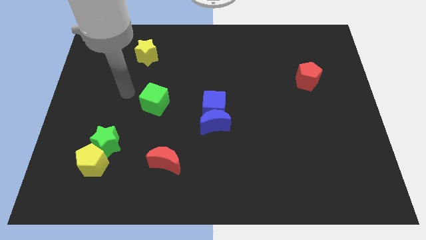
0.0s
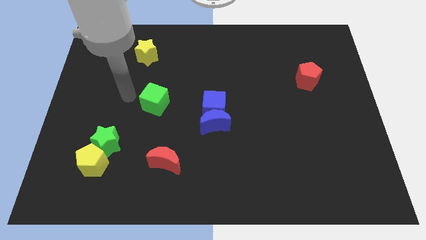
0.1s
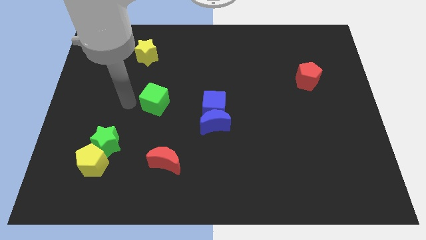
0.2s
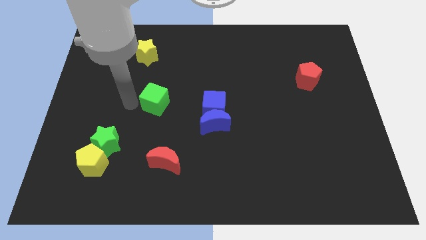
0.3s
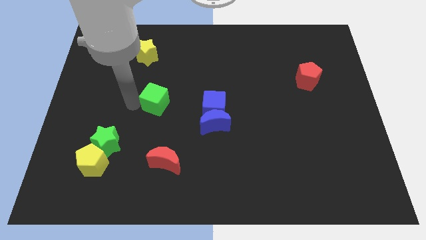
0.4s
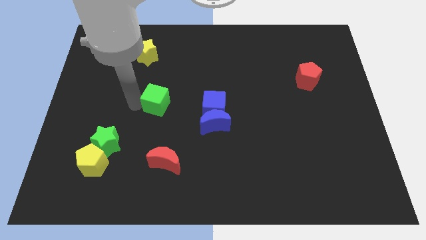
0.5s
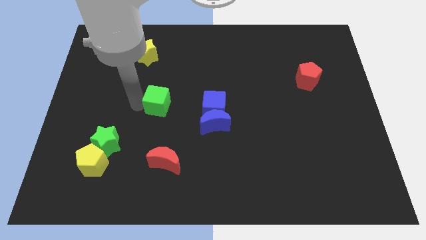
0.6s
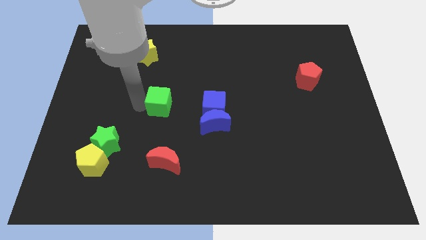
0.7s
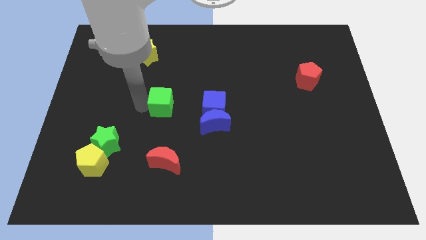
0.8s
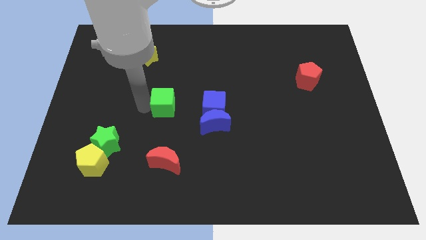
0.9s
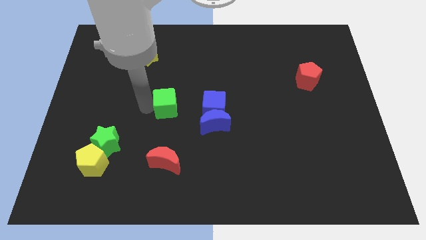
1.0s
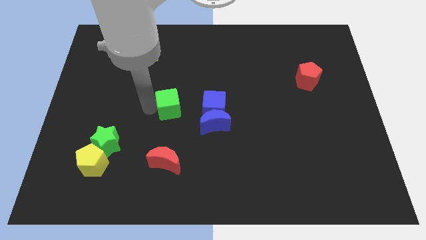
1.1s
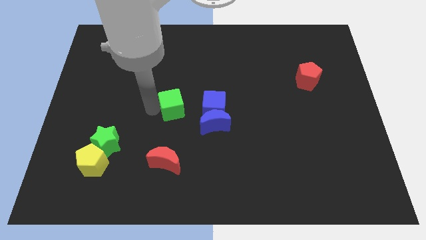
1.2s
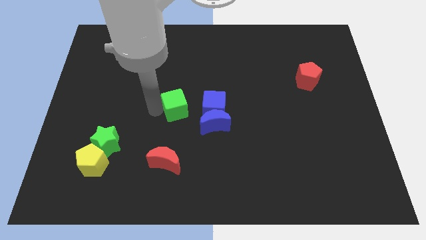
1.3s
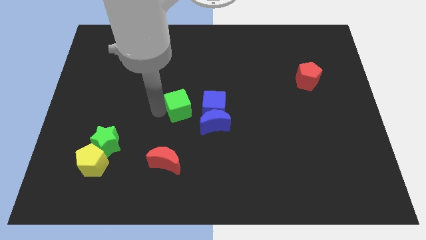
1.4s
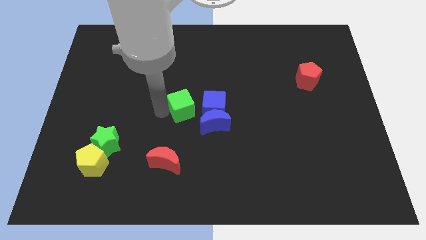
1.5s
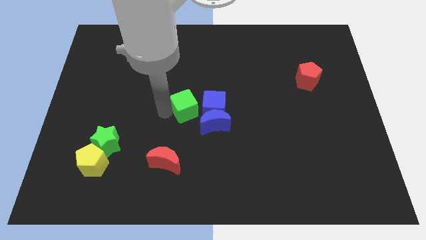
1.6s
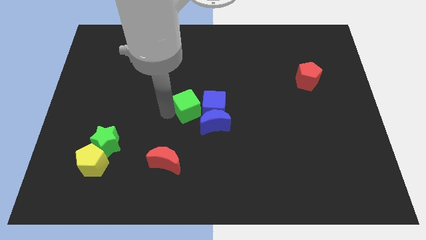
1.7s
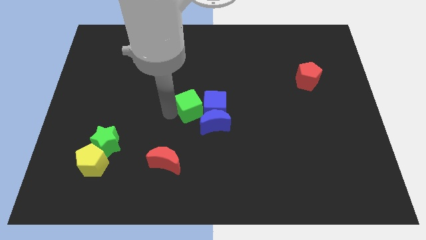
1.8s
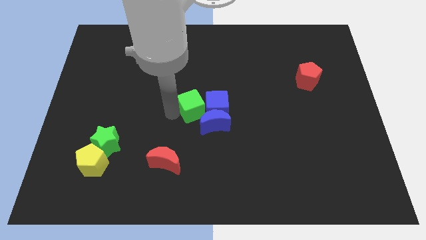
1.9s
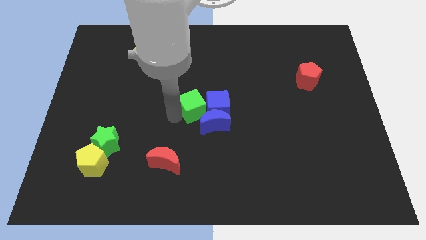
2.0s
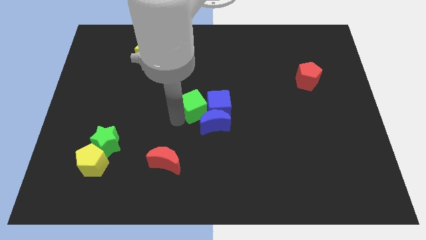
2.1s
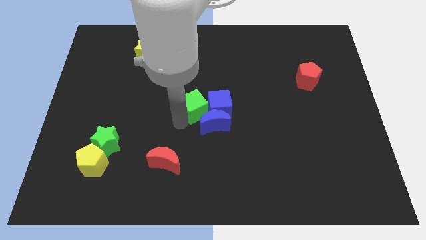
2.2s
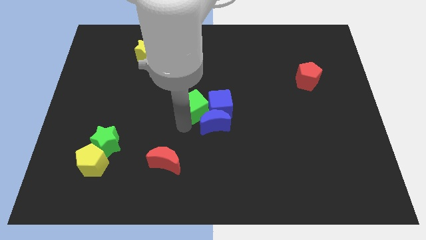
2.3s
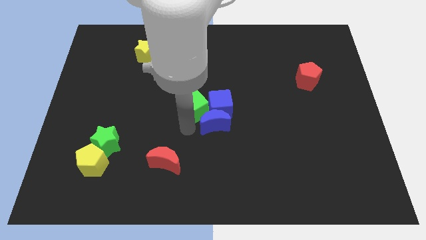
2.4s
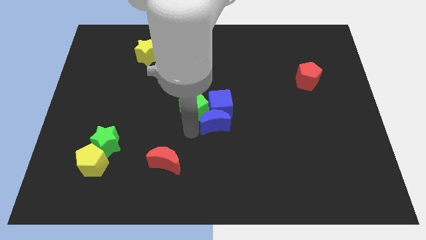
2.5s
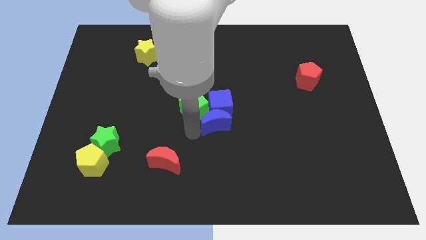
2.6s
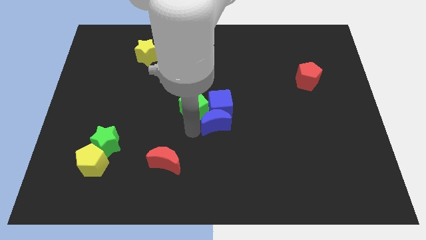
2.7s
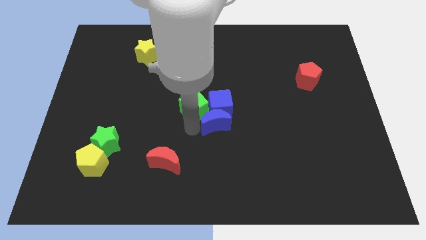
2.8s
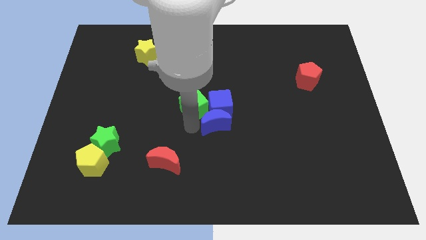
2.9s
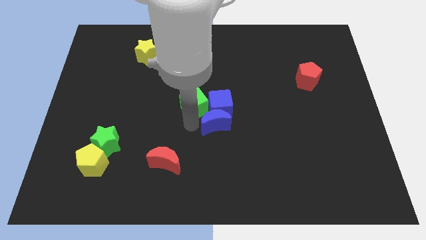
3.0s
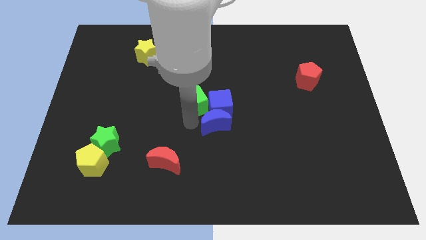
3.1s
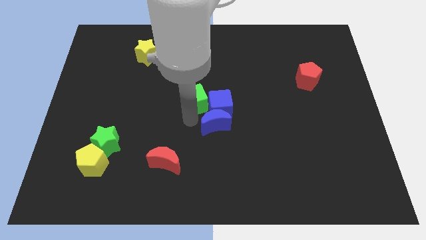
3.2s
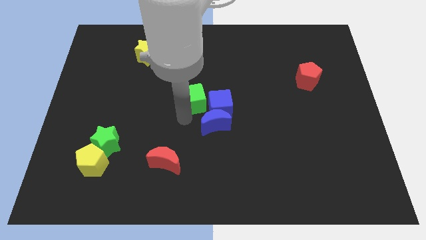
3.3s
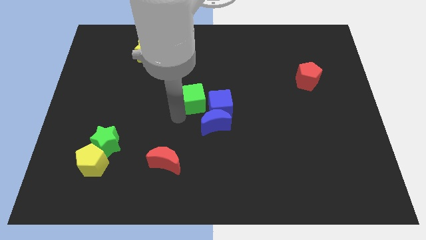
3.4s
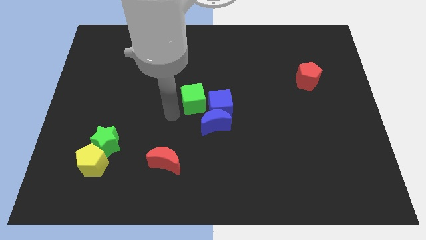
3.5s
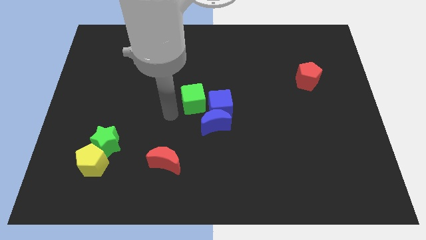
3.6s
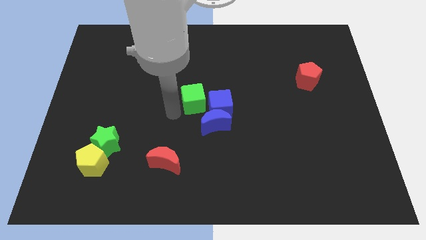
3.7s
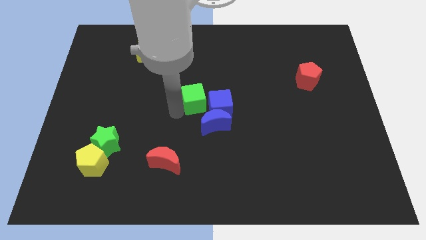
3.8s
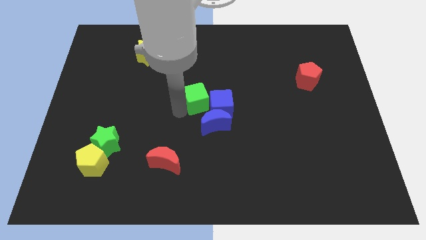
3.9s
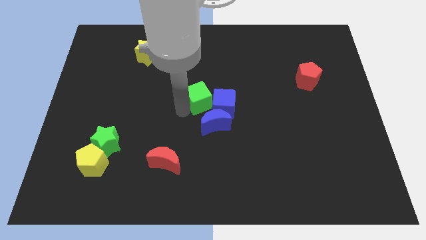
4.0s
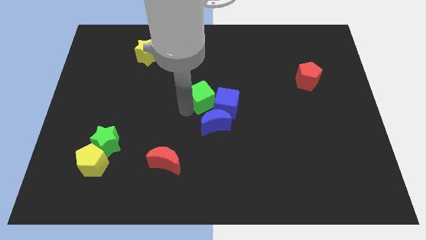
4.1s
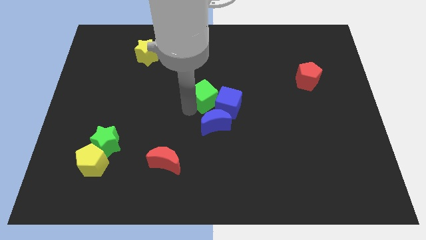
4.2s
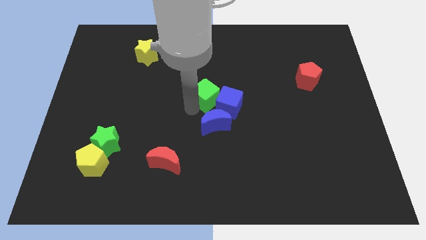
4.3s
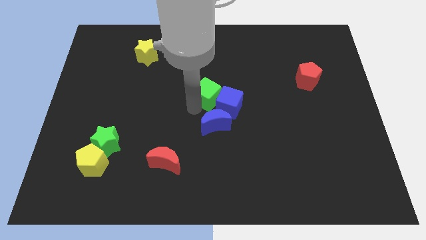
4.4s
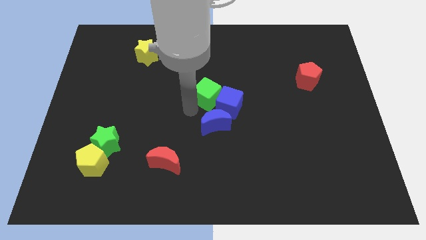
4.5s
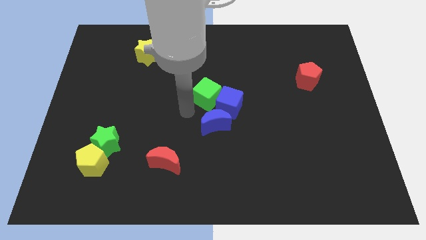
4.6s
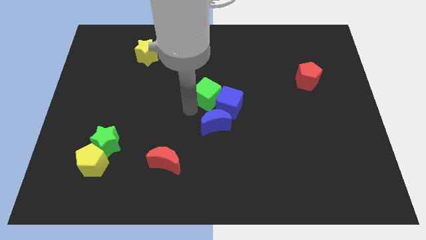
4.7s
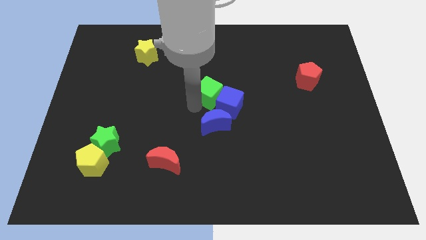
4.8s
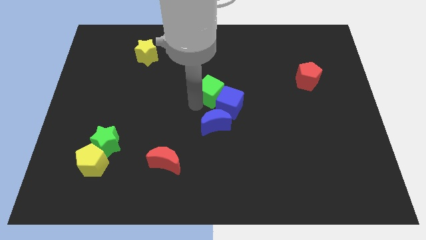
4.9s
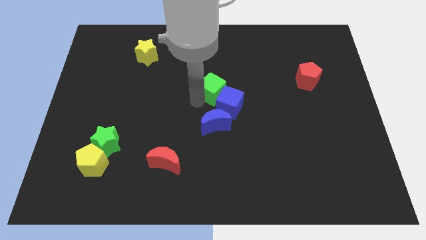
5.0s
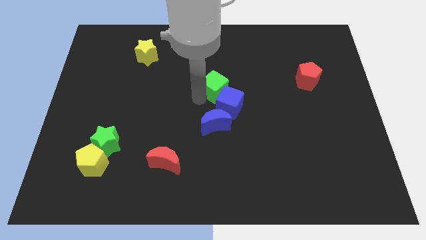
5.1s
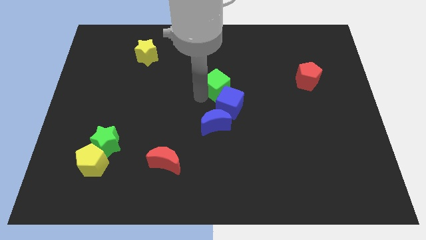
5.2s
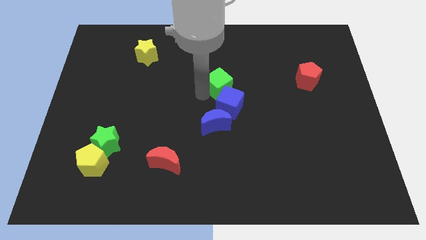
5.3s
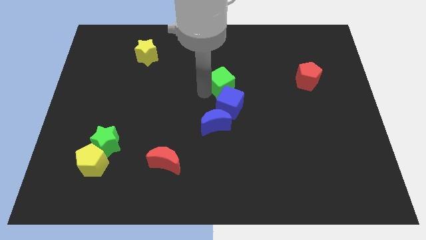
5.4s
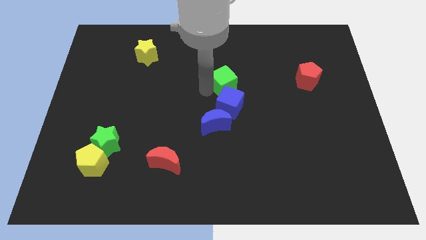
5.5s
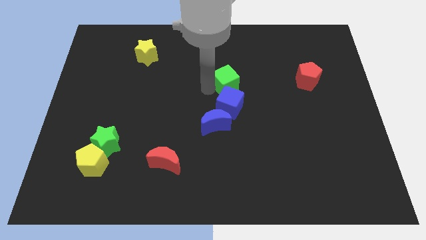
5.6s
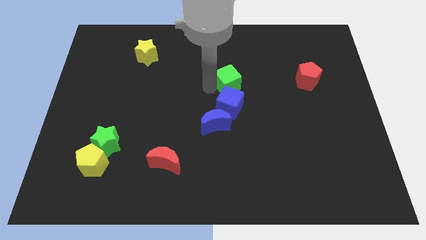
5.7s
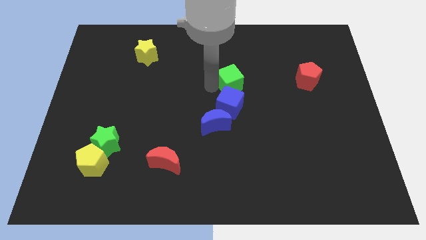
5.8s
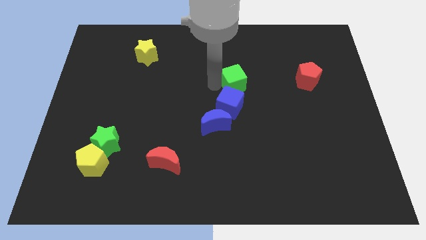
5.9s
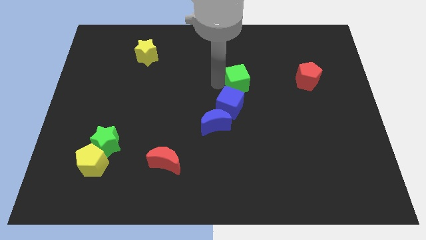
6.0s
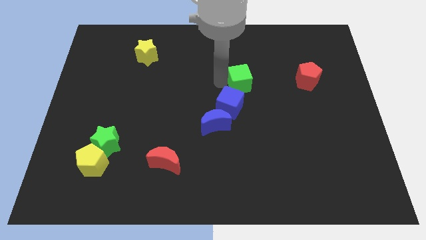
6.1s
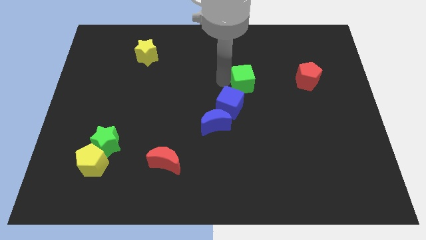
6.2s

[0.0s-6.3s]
put the green cube to the left of the red pentagon

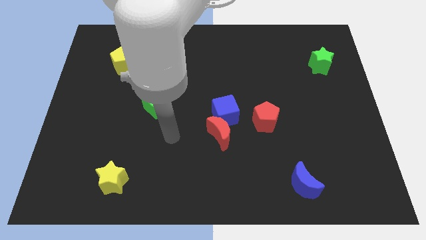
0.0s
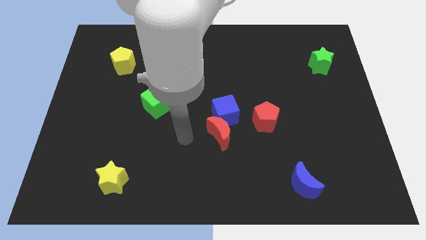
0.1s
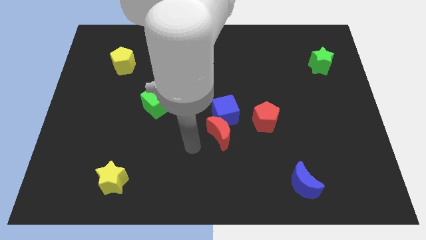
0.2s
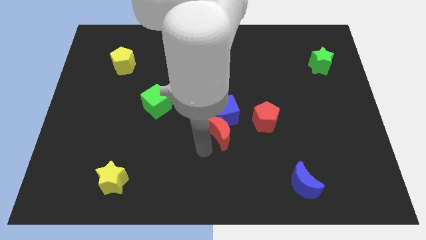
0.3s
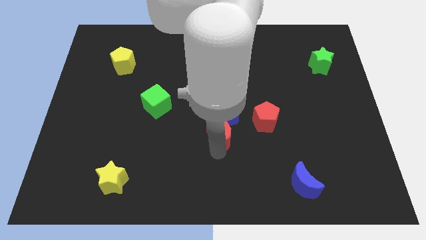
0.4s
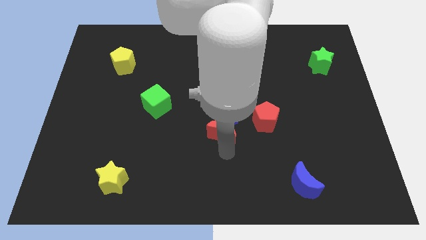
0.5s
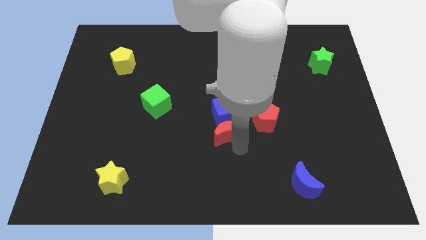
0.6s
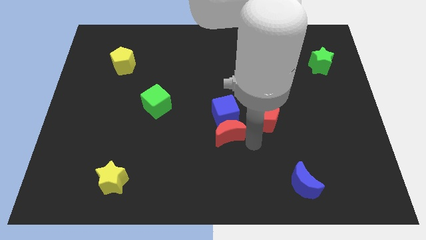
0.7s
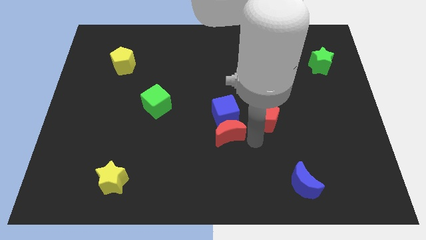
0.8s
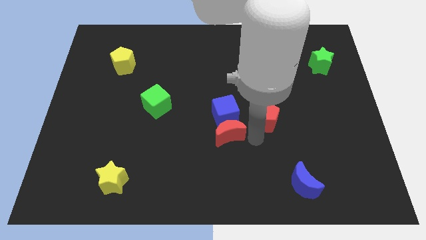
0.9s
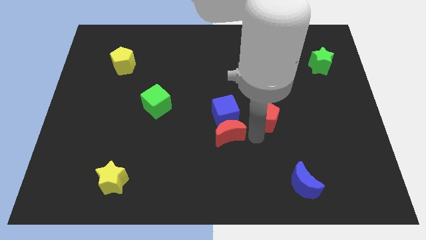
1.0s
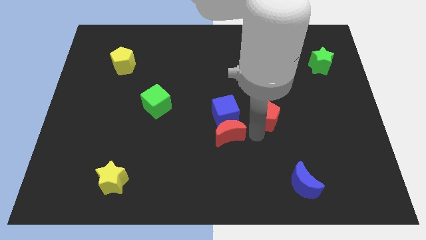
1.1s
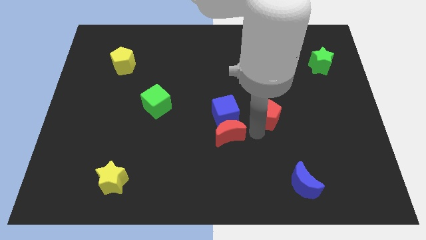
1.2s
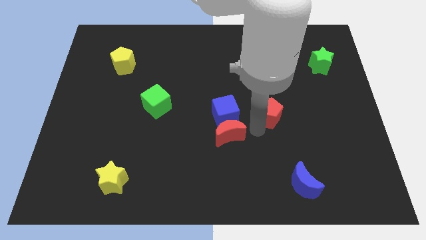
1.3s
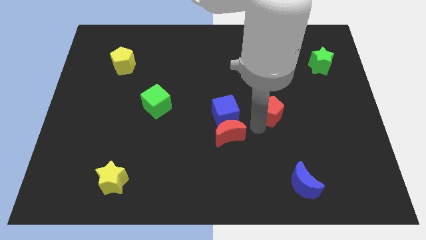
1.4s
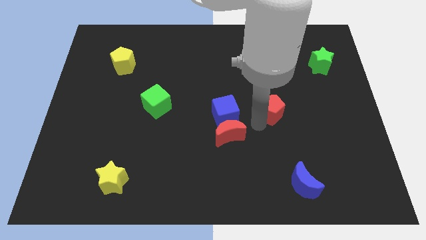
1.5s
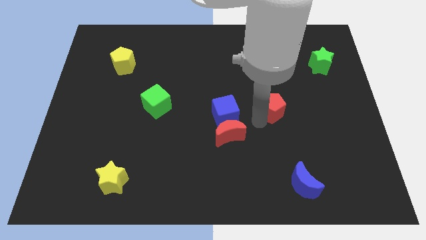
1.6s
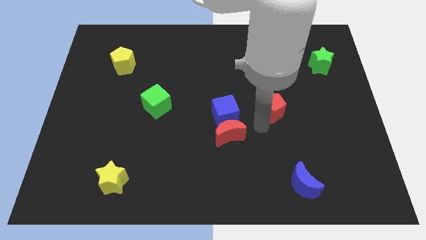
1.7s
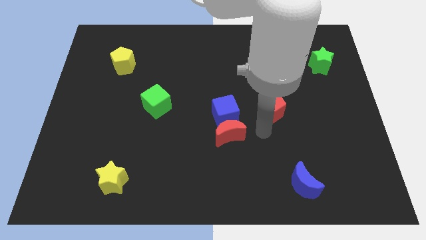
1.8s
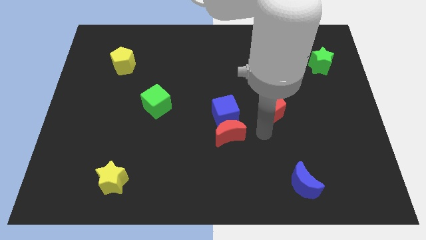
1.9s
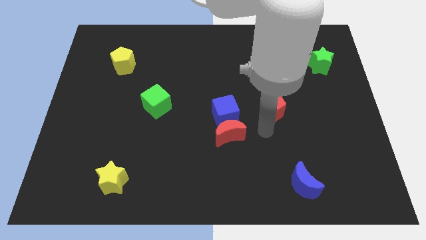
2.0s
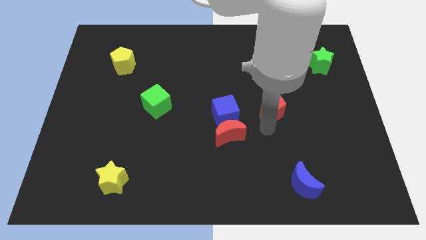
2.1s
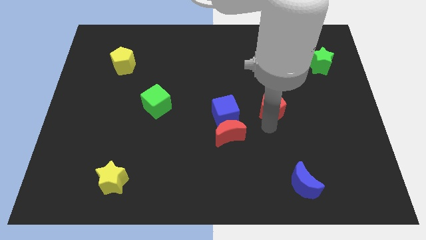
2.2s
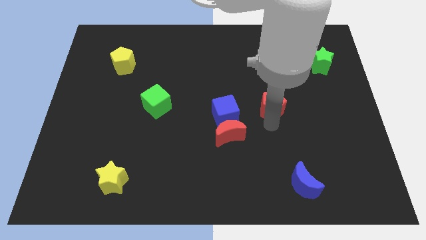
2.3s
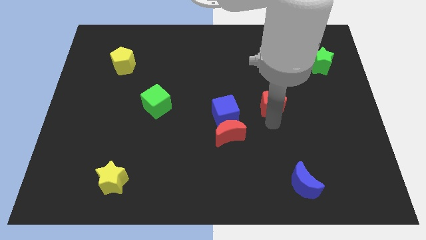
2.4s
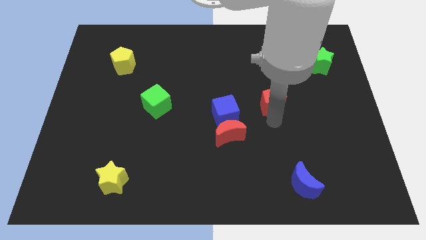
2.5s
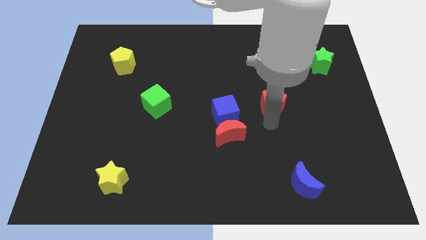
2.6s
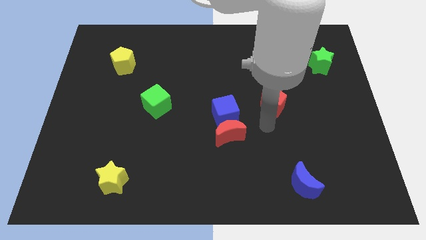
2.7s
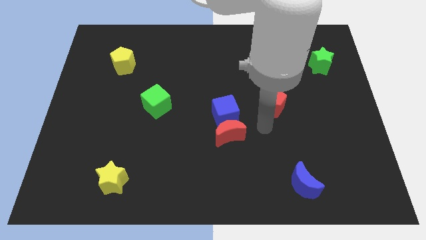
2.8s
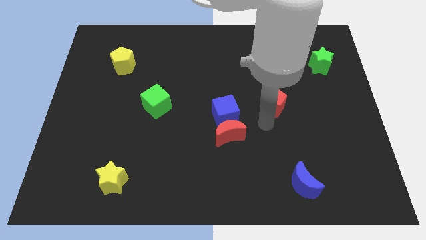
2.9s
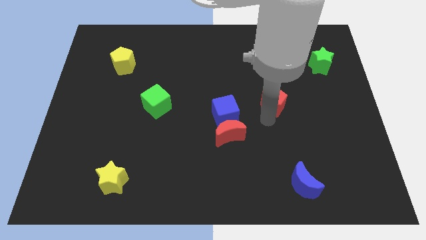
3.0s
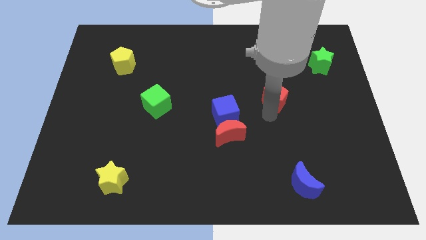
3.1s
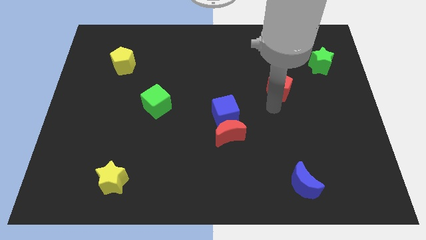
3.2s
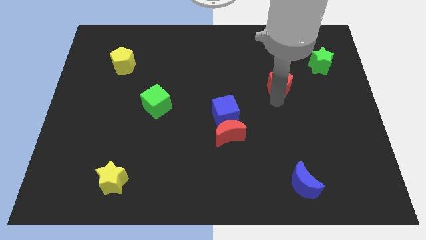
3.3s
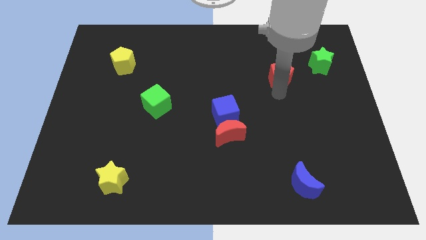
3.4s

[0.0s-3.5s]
move the red pentagon to the left side of the green star
